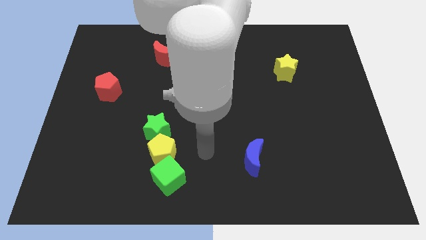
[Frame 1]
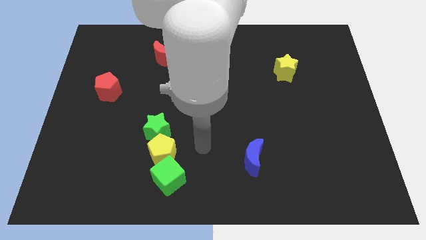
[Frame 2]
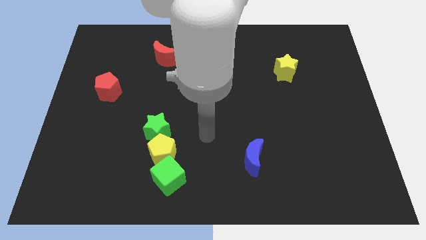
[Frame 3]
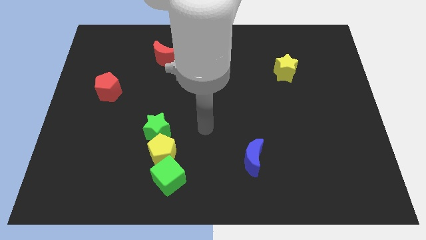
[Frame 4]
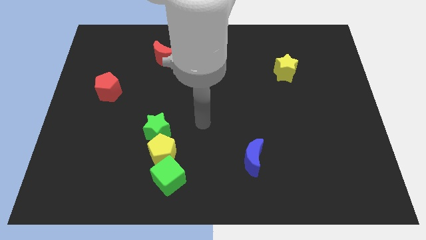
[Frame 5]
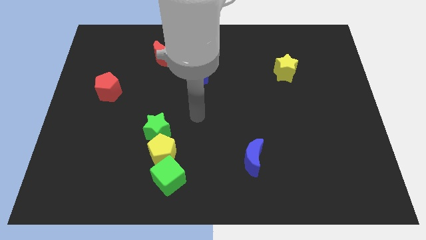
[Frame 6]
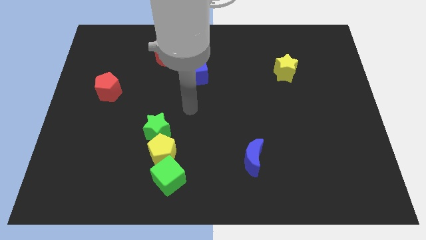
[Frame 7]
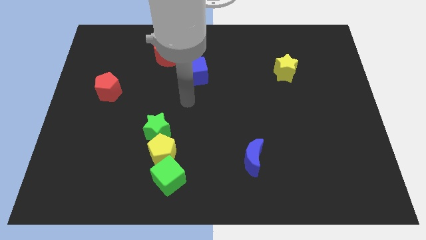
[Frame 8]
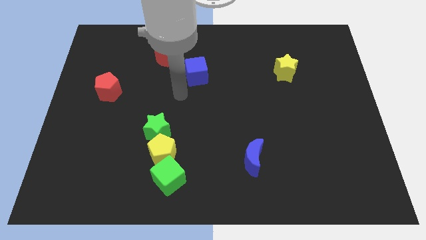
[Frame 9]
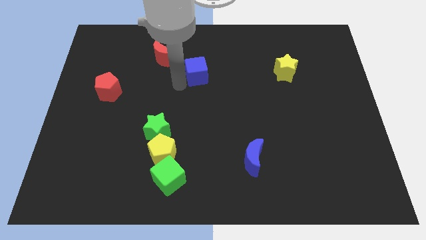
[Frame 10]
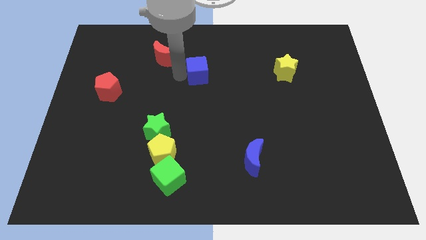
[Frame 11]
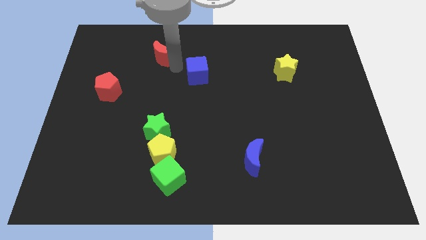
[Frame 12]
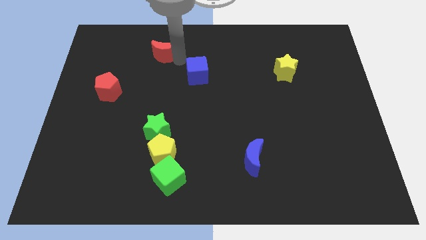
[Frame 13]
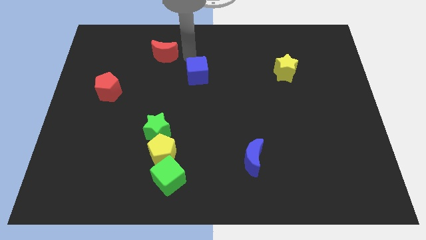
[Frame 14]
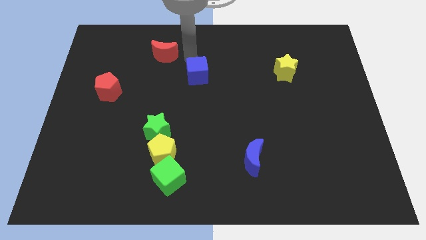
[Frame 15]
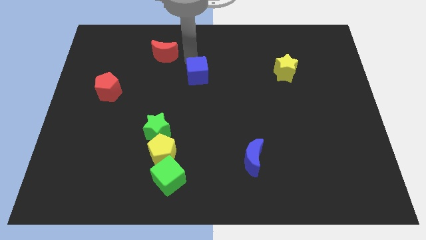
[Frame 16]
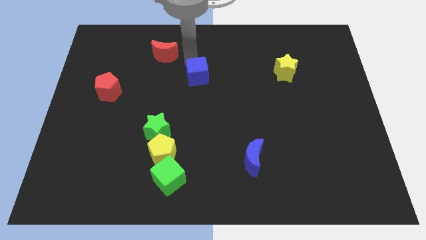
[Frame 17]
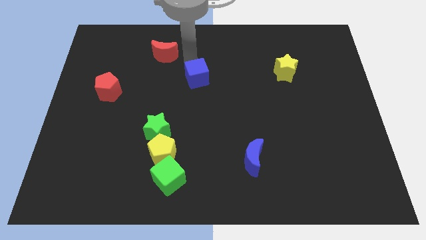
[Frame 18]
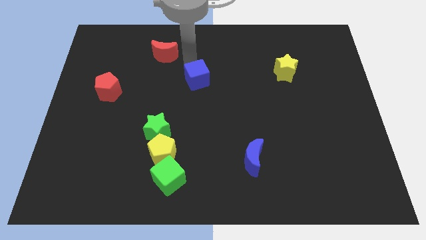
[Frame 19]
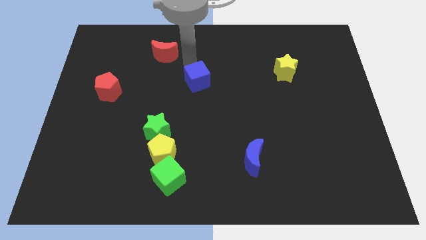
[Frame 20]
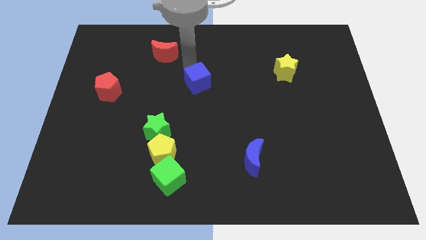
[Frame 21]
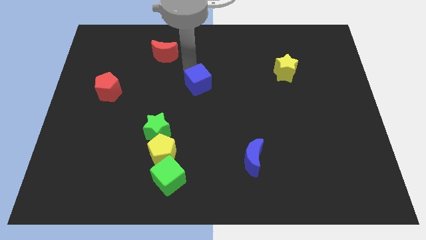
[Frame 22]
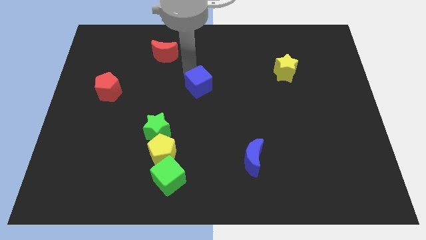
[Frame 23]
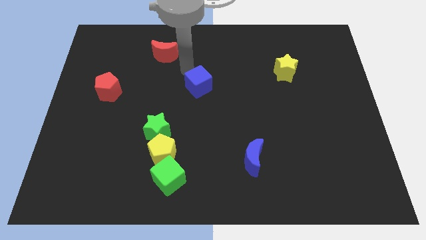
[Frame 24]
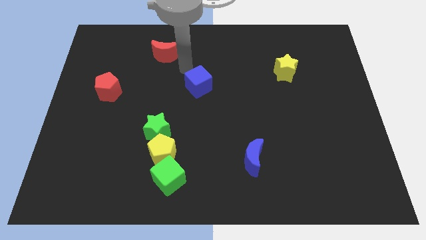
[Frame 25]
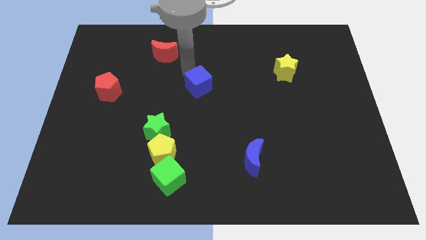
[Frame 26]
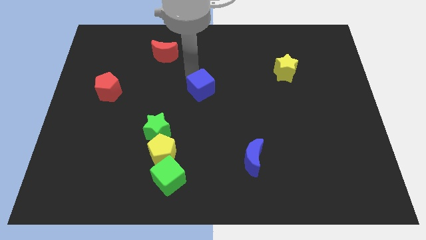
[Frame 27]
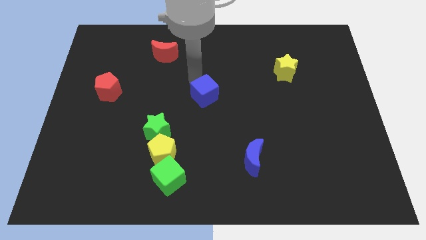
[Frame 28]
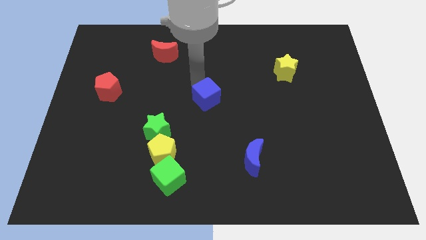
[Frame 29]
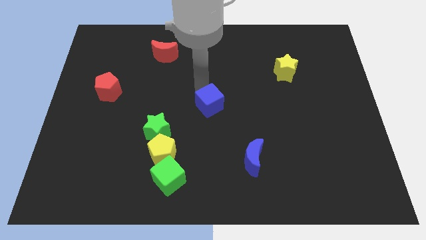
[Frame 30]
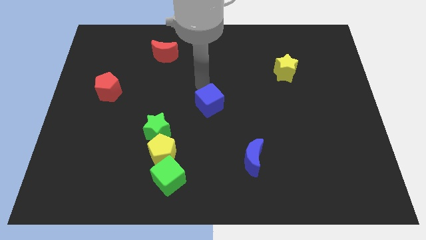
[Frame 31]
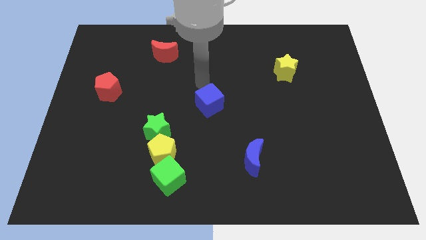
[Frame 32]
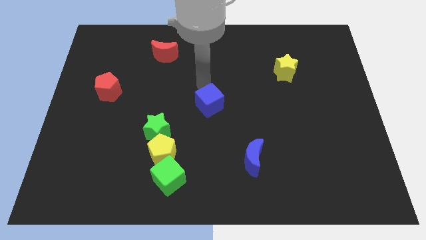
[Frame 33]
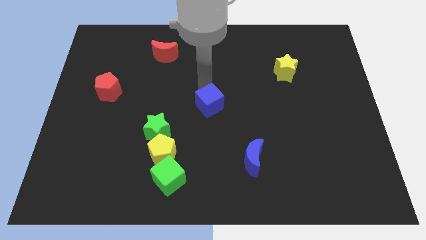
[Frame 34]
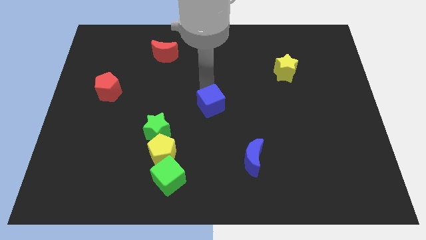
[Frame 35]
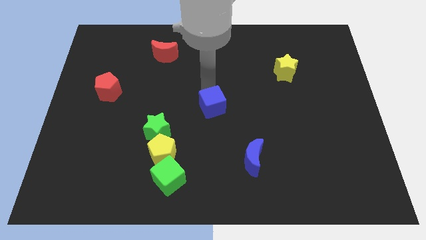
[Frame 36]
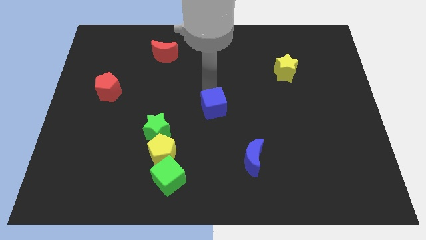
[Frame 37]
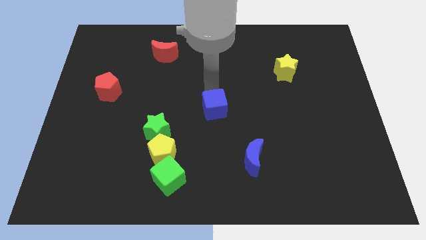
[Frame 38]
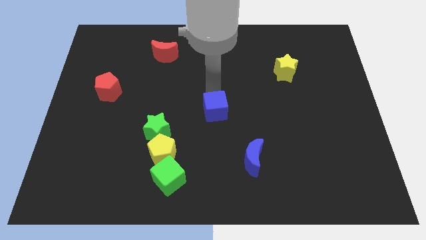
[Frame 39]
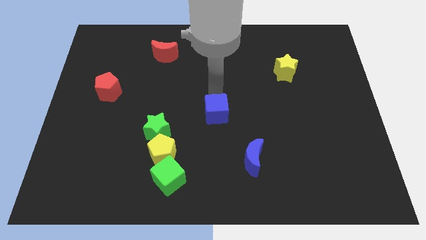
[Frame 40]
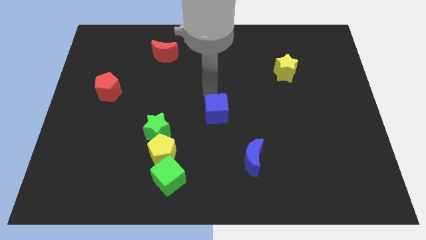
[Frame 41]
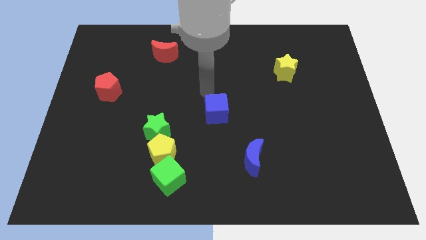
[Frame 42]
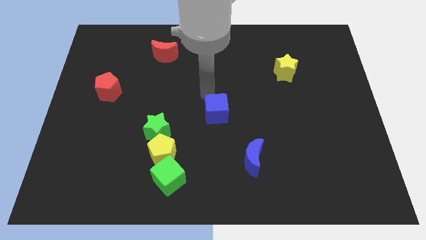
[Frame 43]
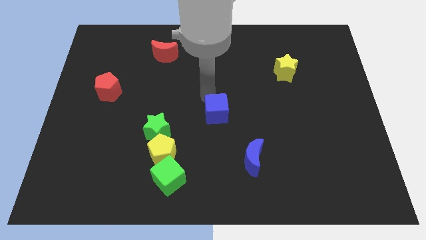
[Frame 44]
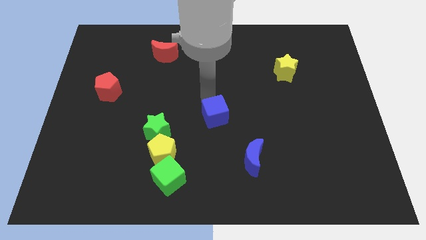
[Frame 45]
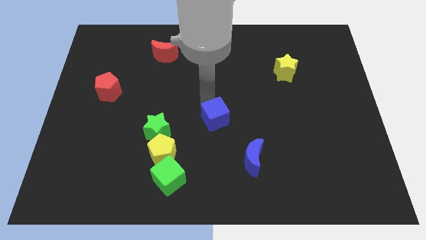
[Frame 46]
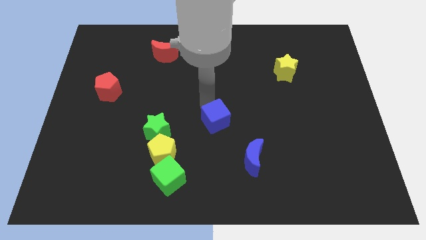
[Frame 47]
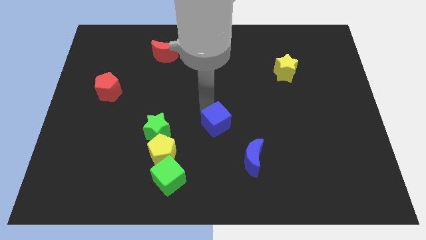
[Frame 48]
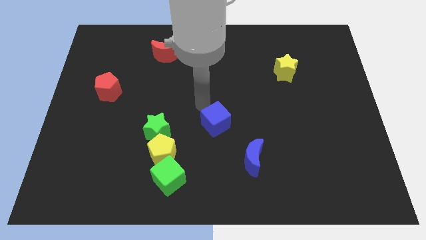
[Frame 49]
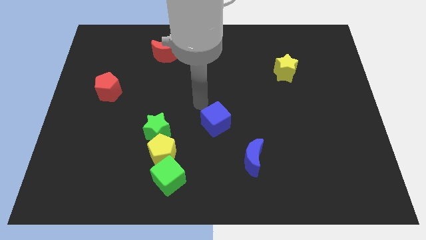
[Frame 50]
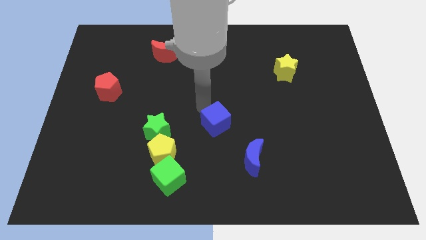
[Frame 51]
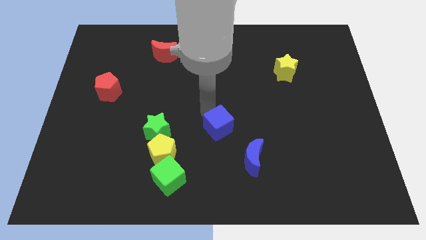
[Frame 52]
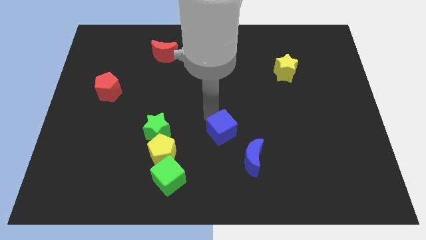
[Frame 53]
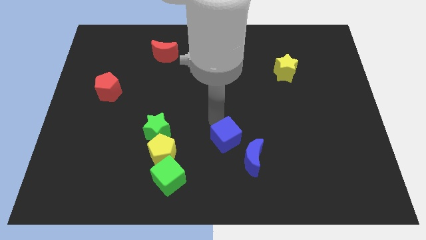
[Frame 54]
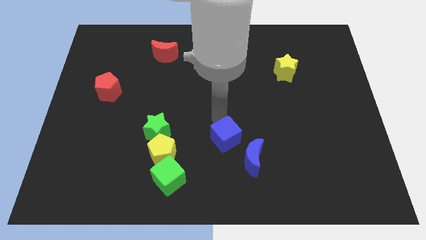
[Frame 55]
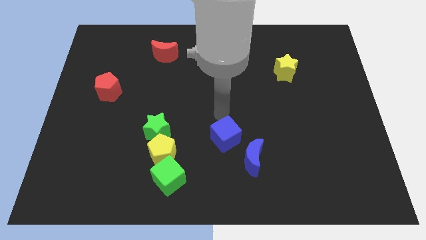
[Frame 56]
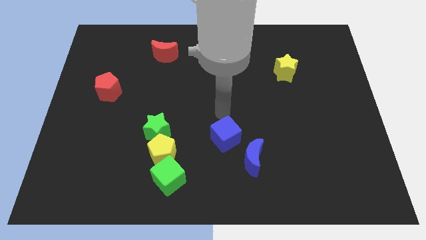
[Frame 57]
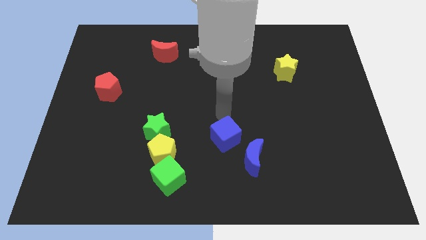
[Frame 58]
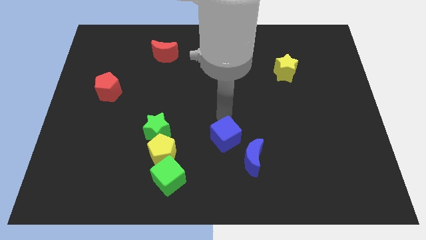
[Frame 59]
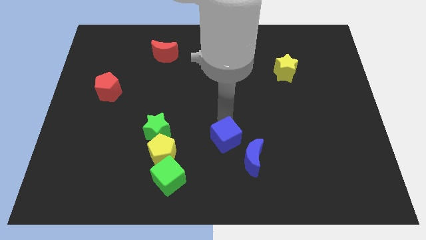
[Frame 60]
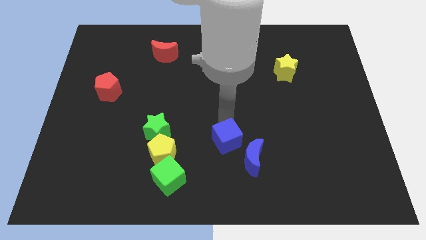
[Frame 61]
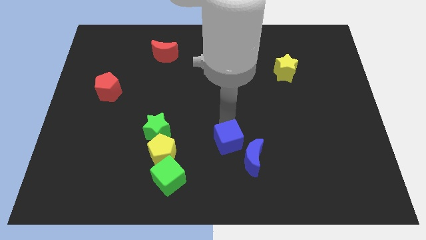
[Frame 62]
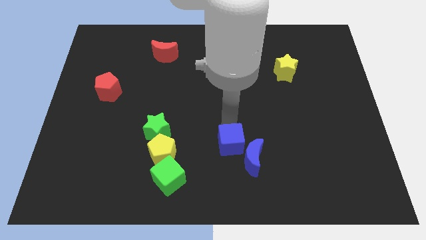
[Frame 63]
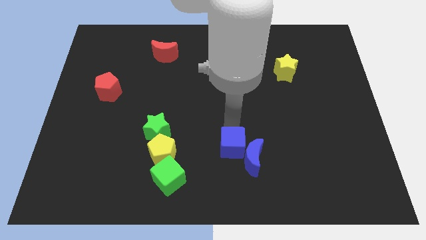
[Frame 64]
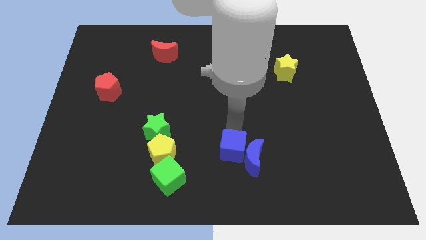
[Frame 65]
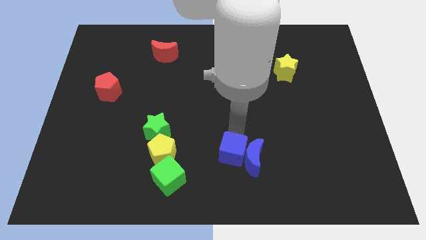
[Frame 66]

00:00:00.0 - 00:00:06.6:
push the blue cube to the bottom left side of the blue moon

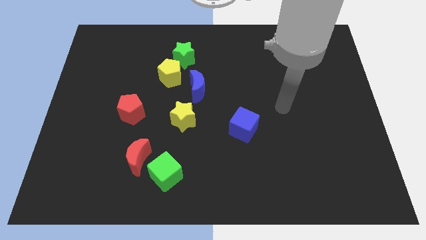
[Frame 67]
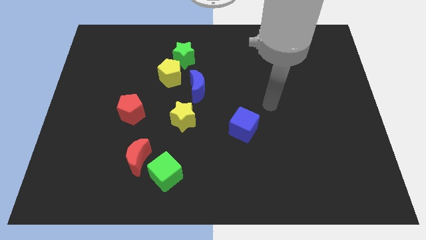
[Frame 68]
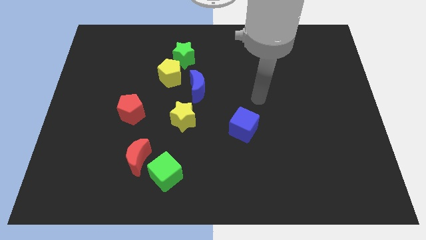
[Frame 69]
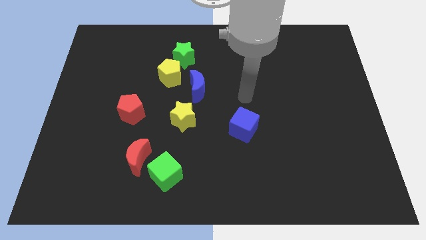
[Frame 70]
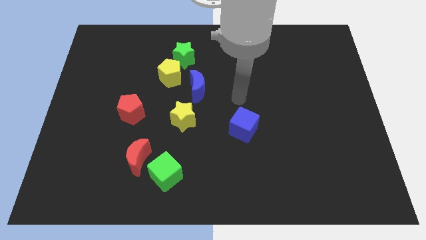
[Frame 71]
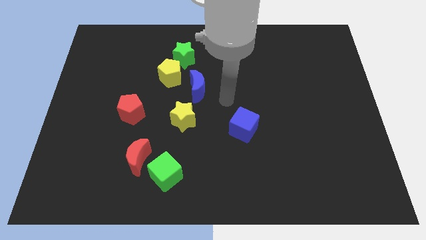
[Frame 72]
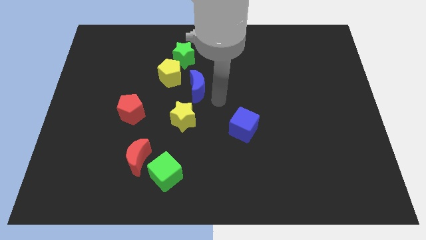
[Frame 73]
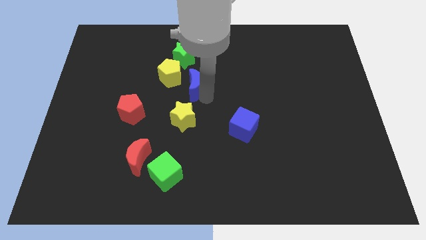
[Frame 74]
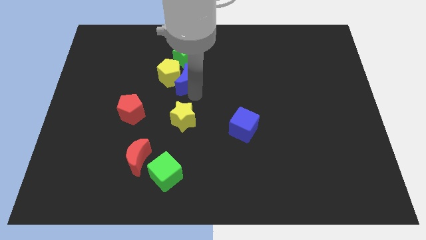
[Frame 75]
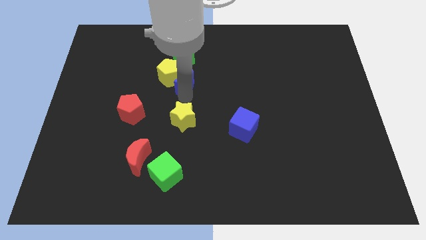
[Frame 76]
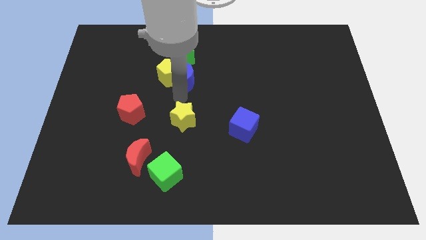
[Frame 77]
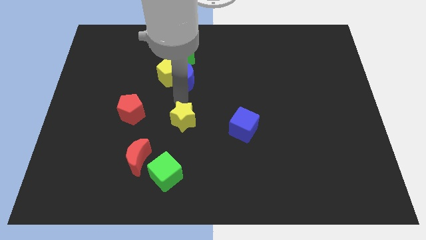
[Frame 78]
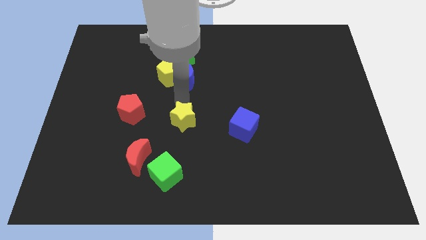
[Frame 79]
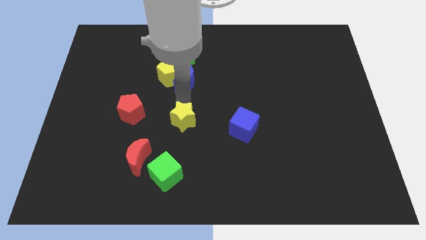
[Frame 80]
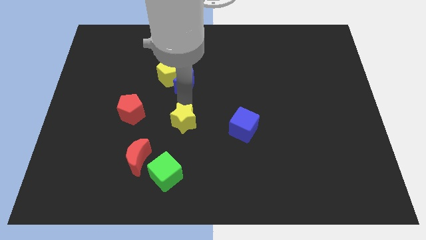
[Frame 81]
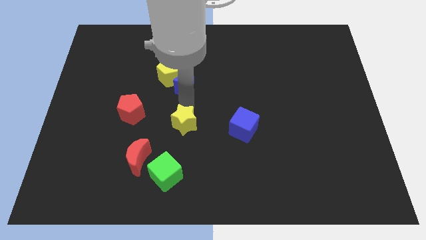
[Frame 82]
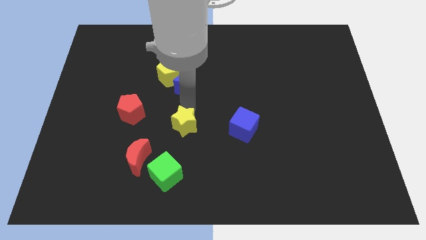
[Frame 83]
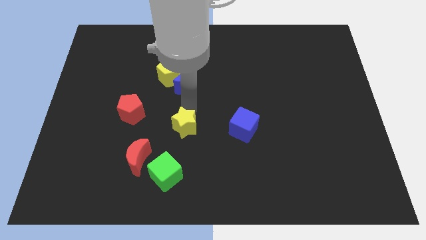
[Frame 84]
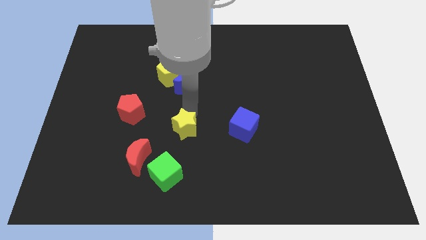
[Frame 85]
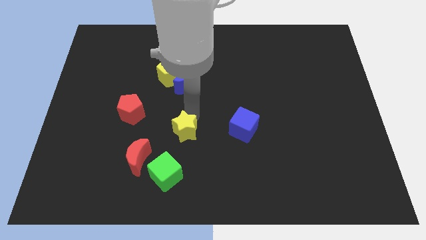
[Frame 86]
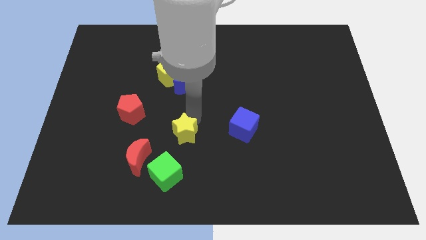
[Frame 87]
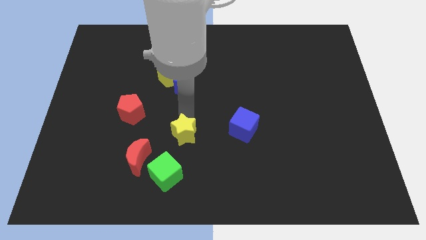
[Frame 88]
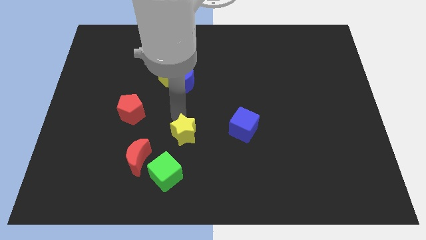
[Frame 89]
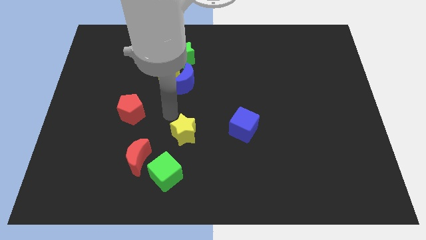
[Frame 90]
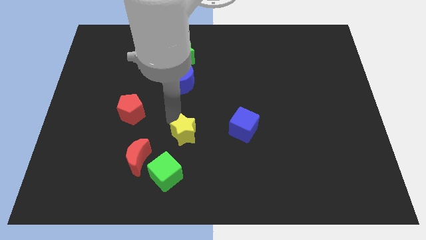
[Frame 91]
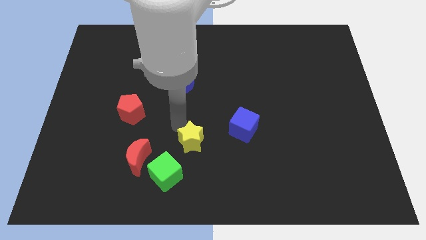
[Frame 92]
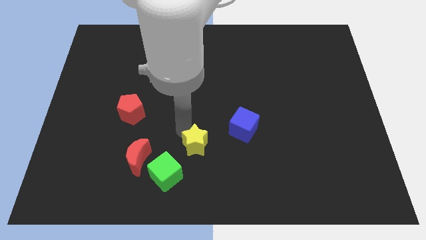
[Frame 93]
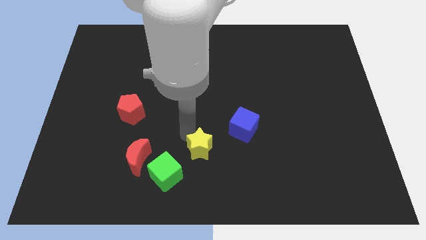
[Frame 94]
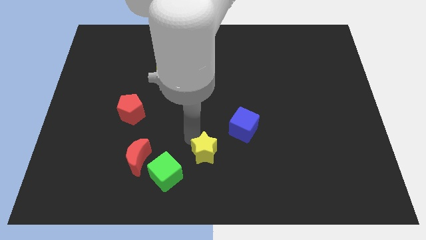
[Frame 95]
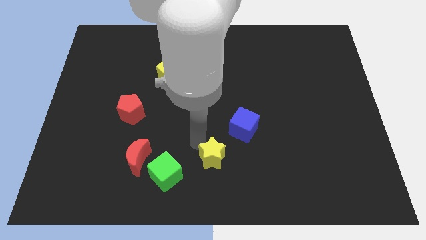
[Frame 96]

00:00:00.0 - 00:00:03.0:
put the yellow star to the right side of the green cube
